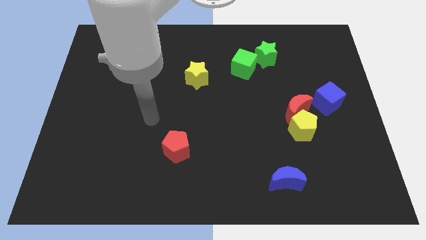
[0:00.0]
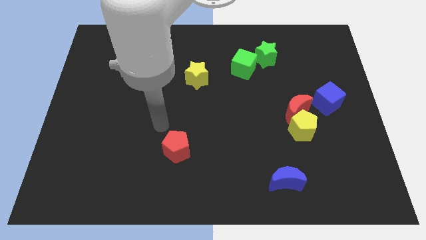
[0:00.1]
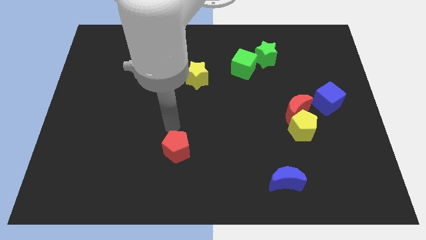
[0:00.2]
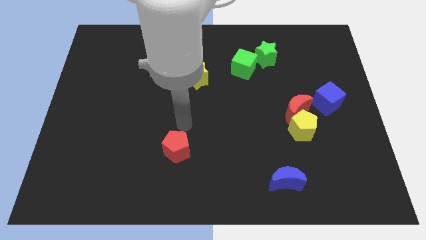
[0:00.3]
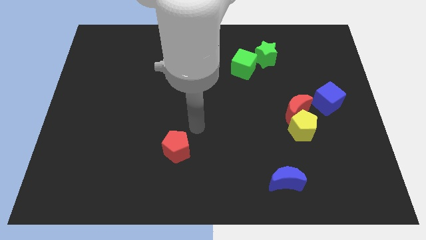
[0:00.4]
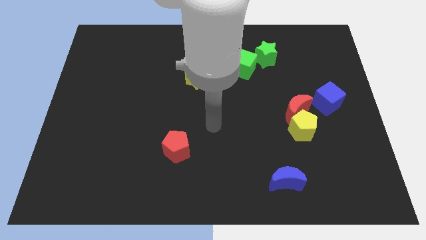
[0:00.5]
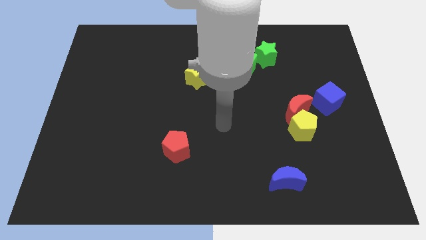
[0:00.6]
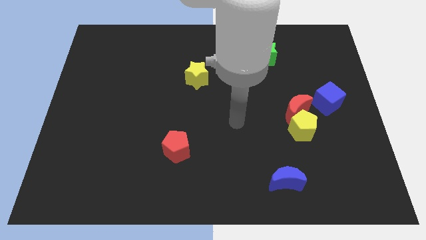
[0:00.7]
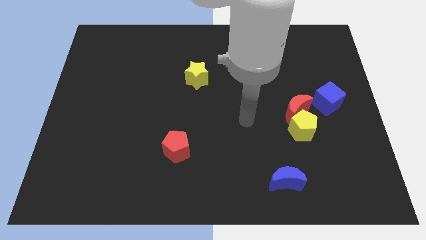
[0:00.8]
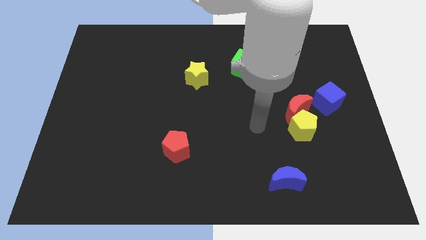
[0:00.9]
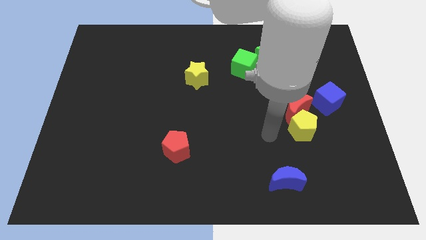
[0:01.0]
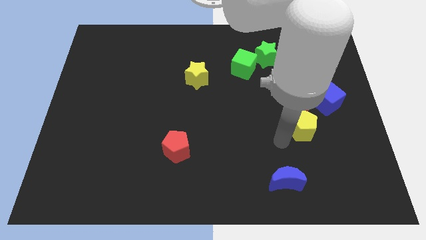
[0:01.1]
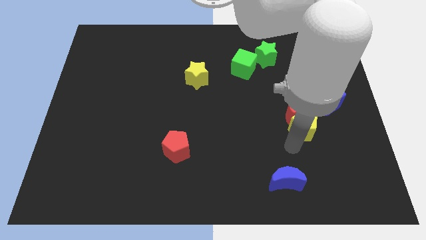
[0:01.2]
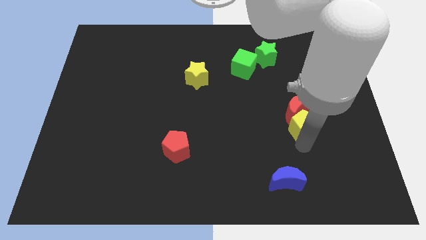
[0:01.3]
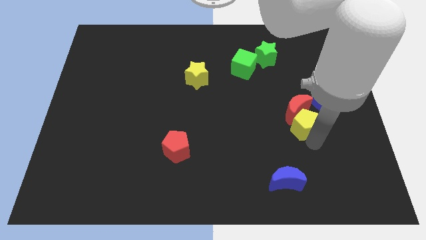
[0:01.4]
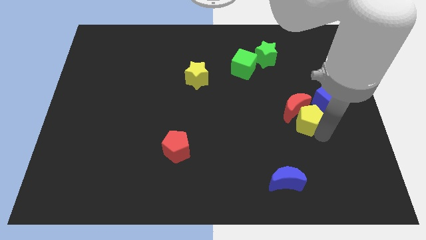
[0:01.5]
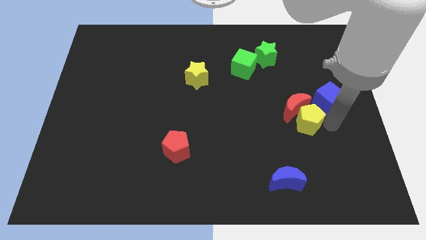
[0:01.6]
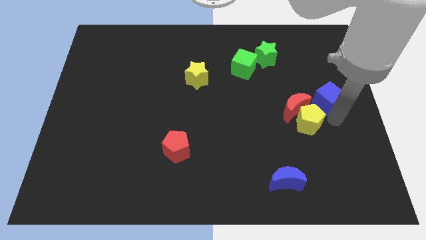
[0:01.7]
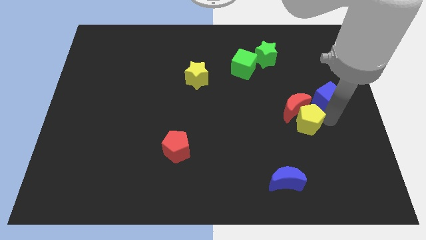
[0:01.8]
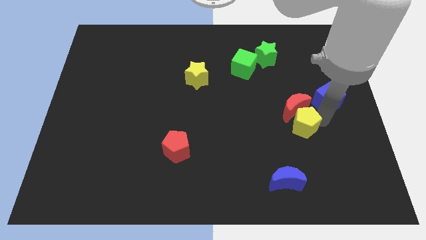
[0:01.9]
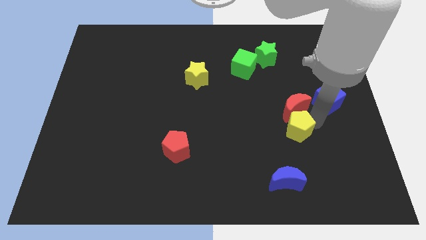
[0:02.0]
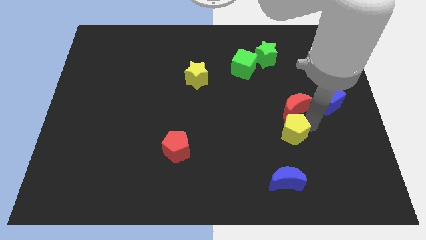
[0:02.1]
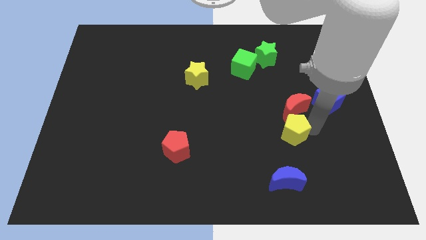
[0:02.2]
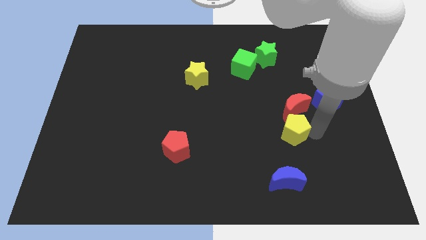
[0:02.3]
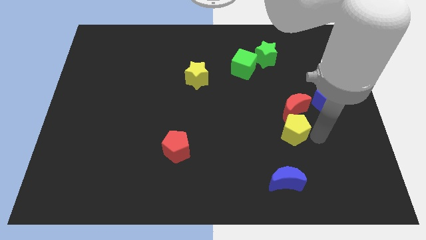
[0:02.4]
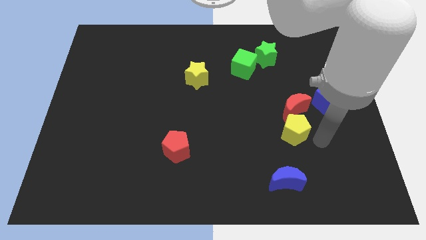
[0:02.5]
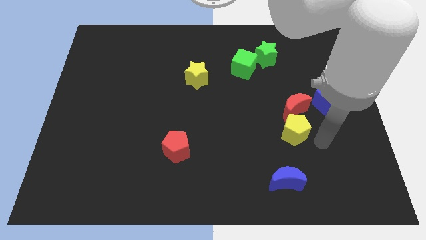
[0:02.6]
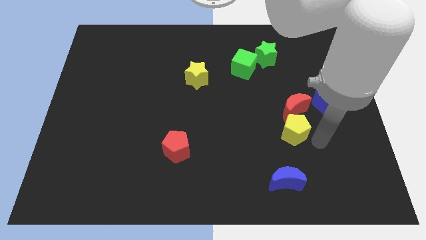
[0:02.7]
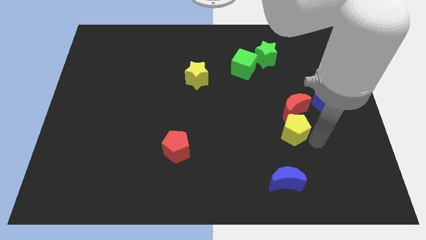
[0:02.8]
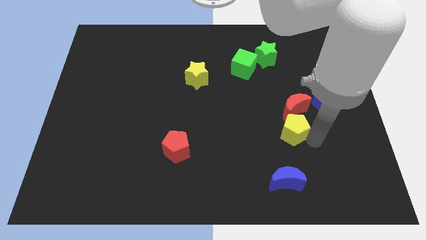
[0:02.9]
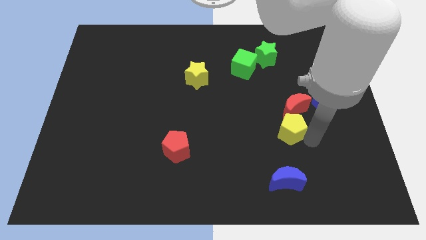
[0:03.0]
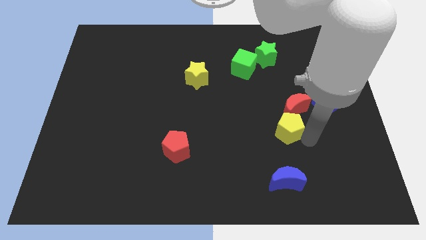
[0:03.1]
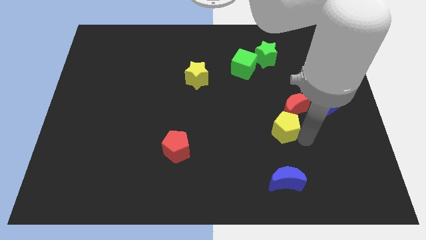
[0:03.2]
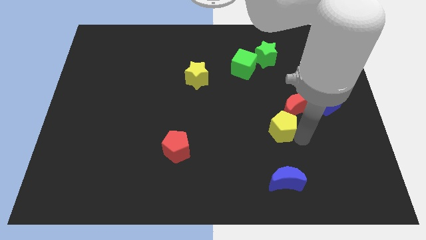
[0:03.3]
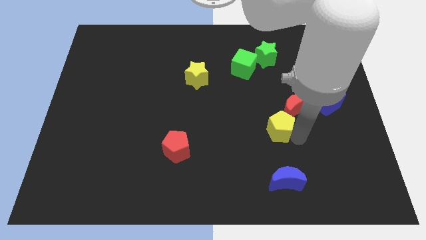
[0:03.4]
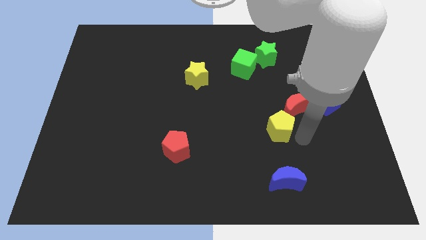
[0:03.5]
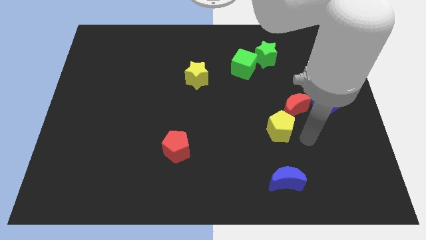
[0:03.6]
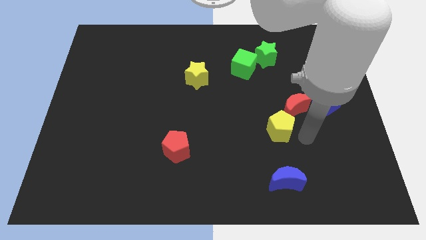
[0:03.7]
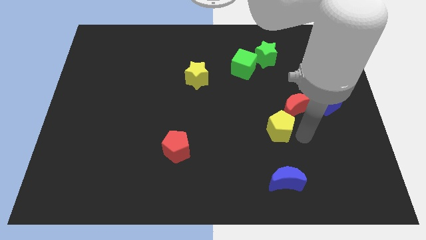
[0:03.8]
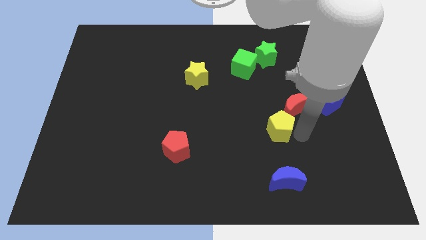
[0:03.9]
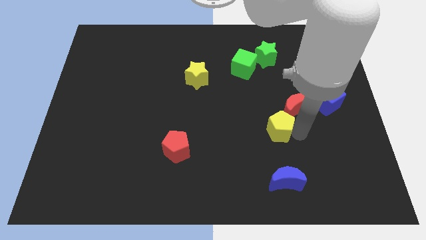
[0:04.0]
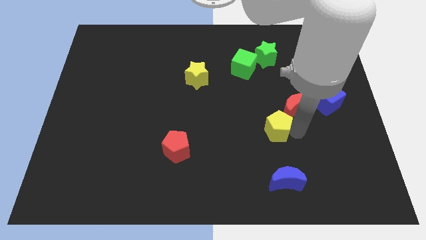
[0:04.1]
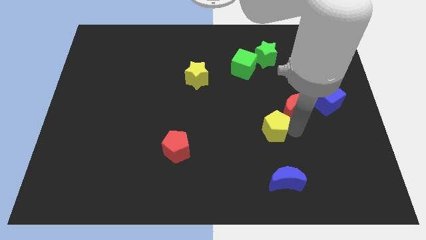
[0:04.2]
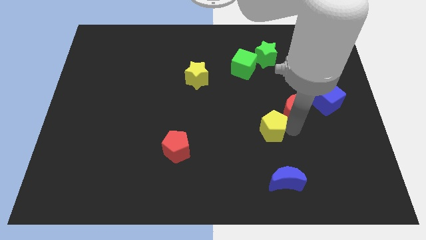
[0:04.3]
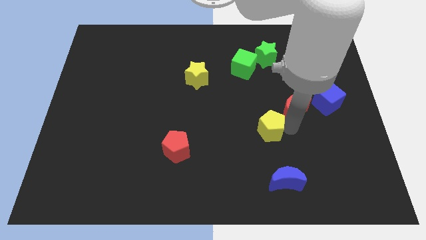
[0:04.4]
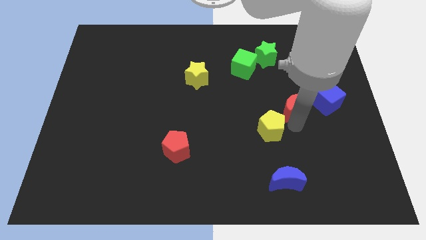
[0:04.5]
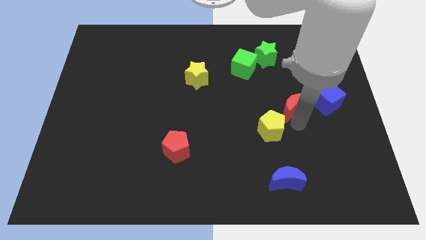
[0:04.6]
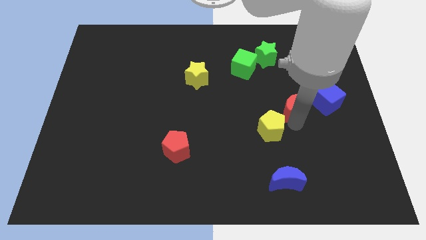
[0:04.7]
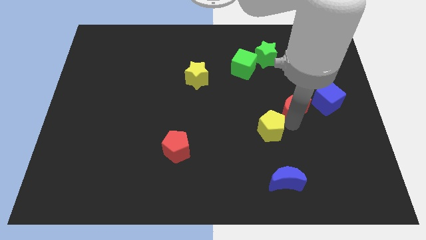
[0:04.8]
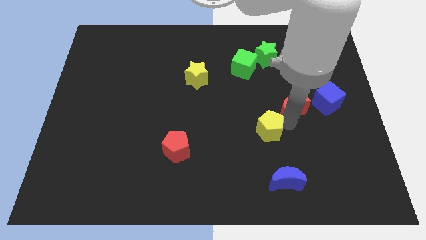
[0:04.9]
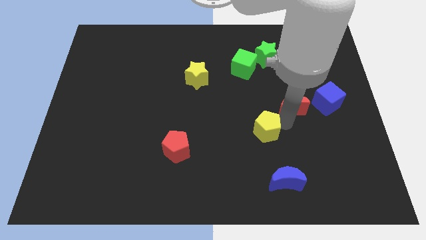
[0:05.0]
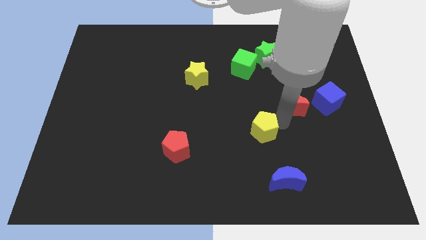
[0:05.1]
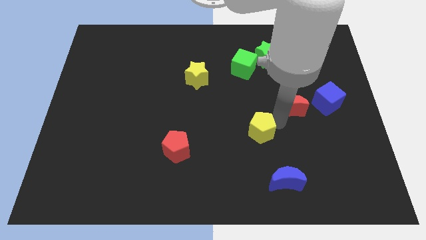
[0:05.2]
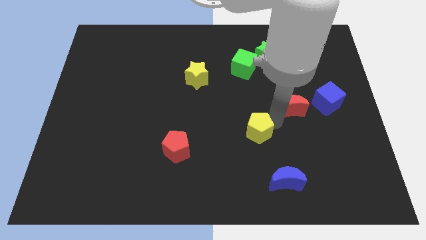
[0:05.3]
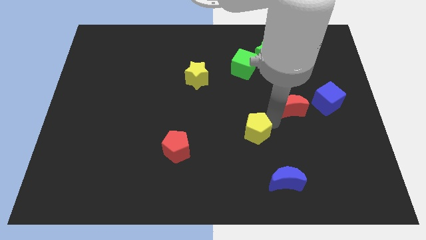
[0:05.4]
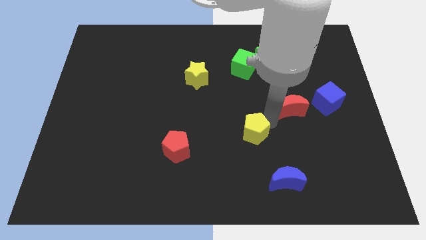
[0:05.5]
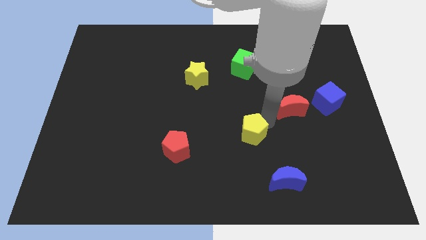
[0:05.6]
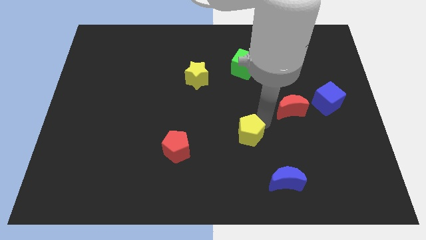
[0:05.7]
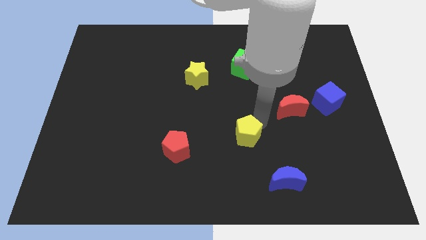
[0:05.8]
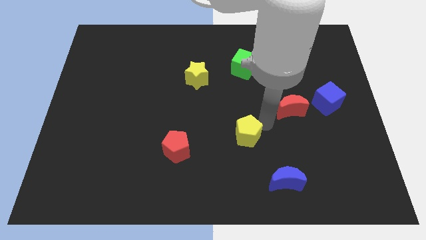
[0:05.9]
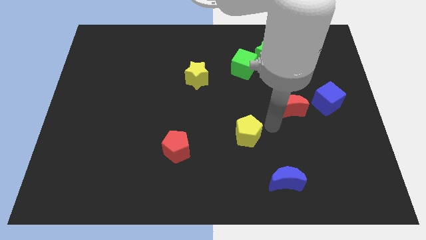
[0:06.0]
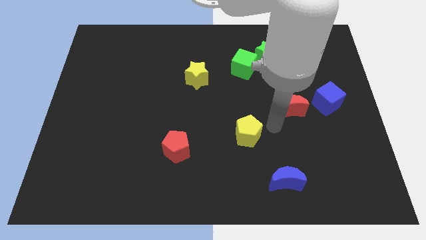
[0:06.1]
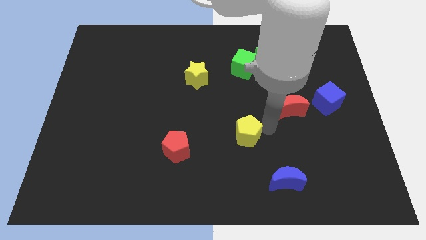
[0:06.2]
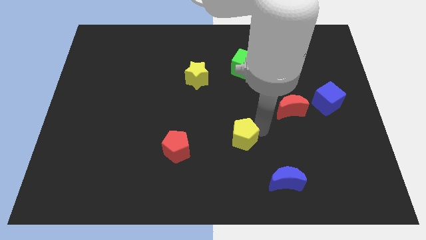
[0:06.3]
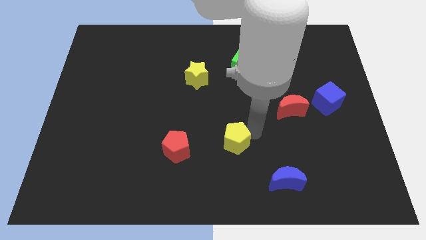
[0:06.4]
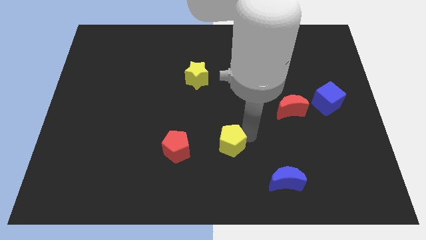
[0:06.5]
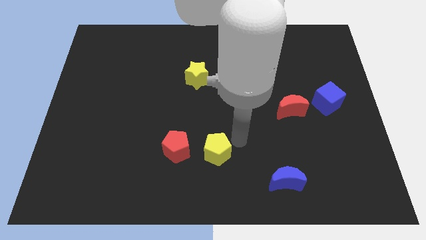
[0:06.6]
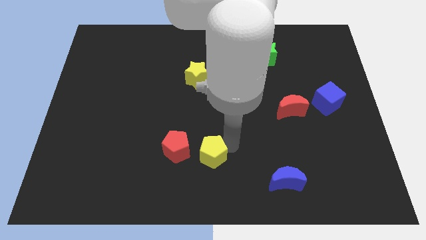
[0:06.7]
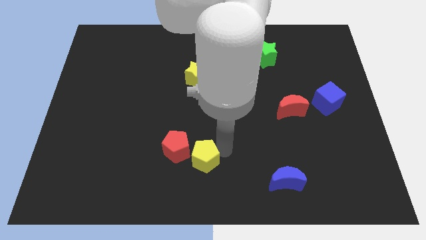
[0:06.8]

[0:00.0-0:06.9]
put the yellow pentagon towards the red pentagon

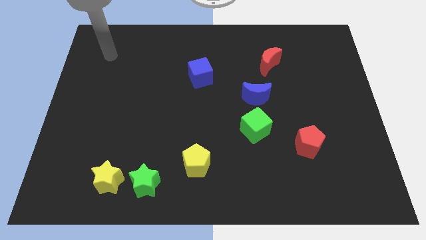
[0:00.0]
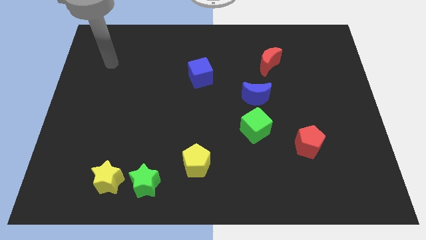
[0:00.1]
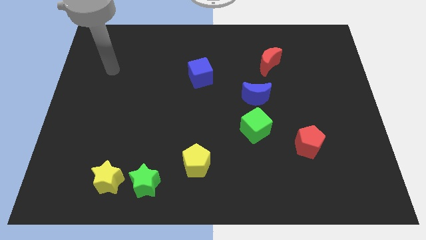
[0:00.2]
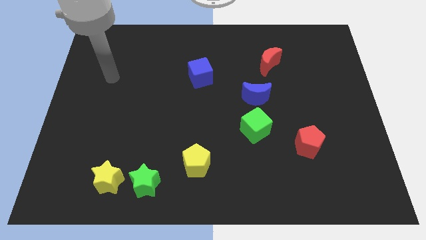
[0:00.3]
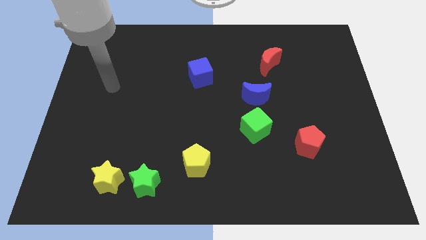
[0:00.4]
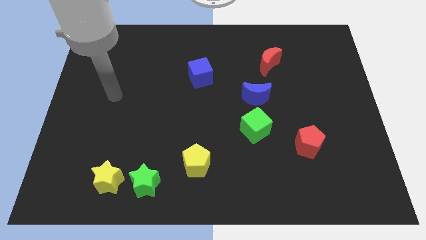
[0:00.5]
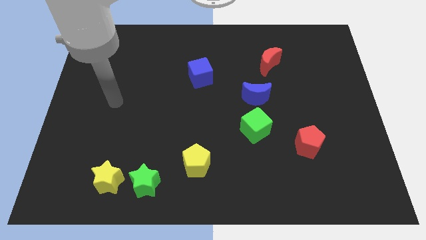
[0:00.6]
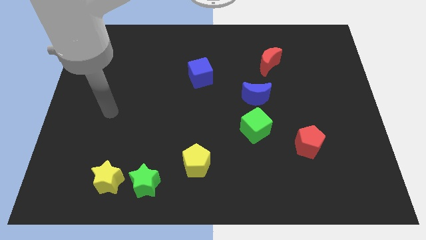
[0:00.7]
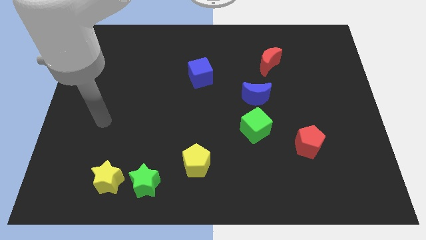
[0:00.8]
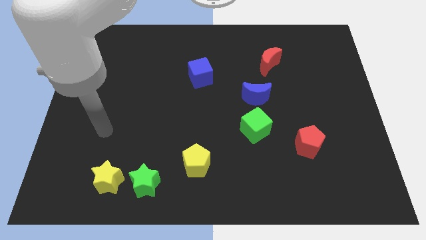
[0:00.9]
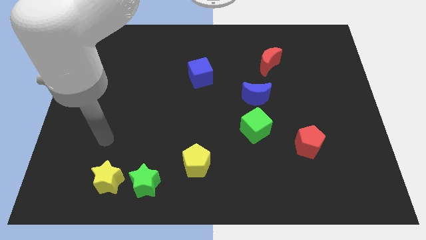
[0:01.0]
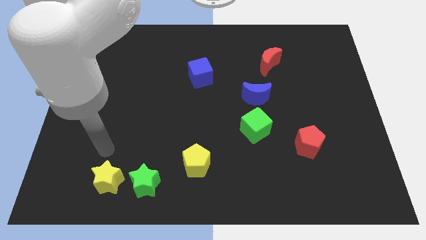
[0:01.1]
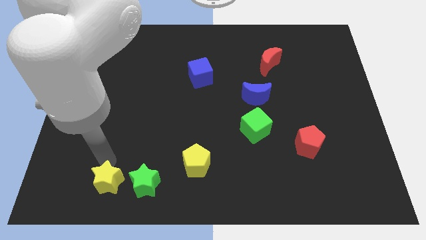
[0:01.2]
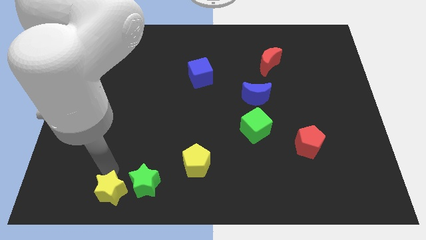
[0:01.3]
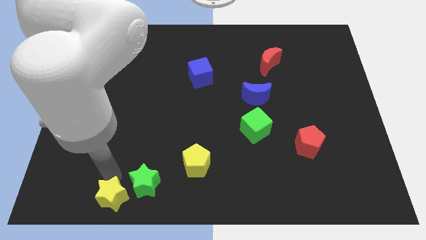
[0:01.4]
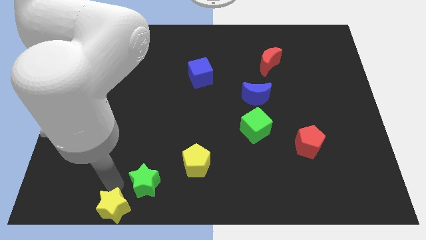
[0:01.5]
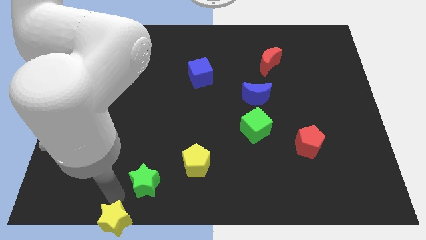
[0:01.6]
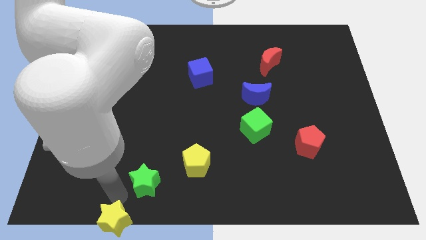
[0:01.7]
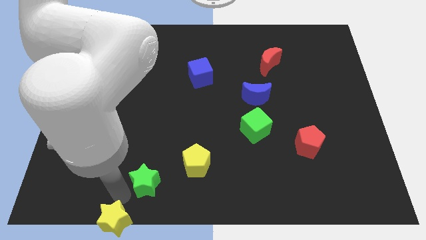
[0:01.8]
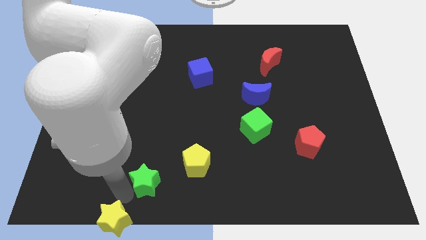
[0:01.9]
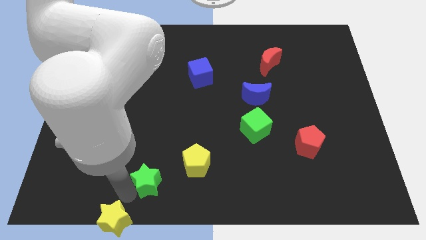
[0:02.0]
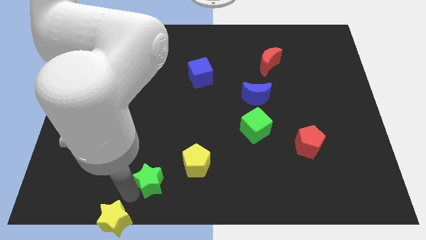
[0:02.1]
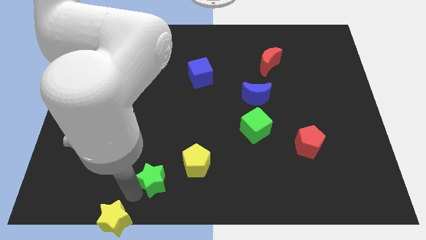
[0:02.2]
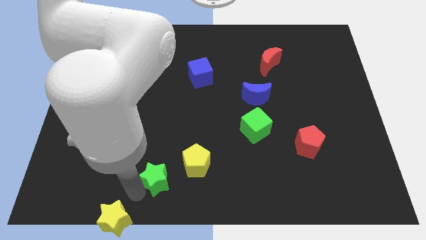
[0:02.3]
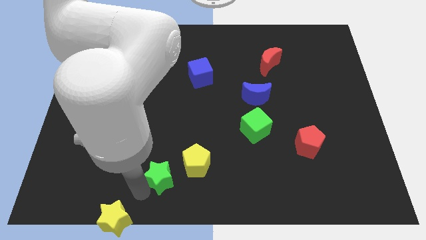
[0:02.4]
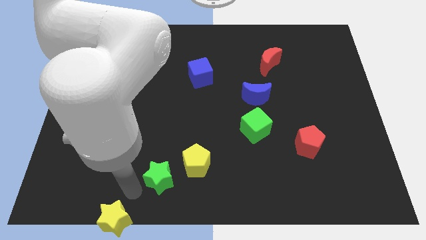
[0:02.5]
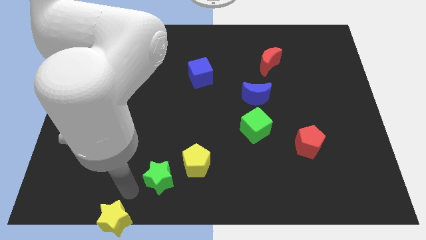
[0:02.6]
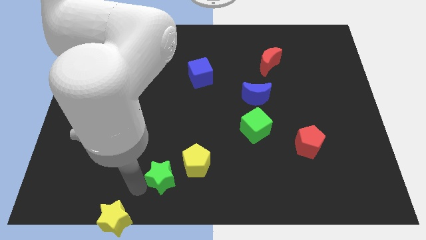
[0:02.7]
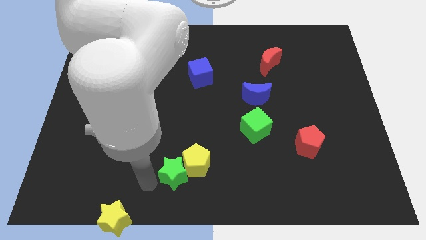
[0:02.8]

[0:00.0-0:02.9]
put the green star towards the yellow pentagon
